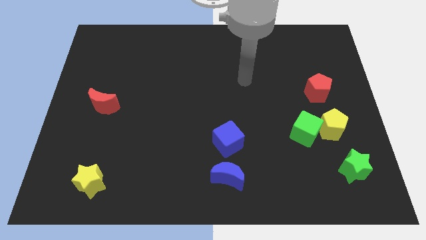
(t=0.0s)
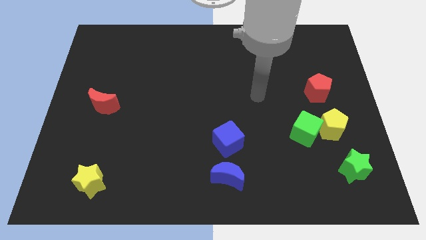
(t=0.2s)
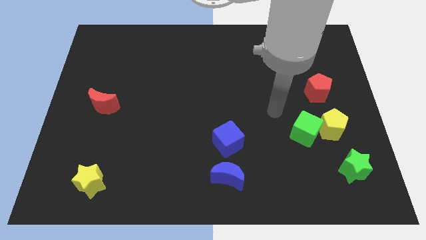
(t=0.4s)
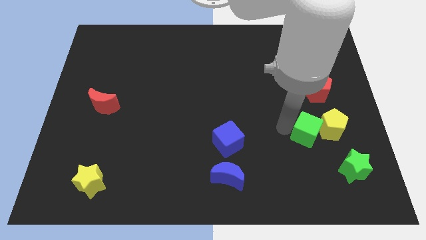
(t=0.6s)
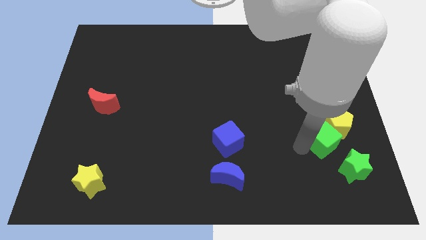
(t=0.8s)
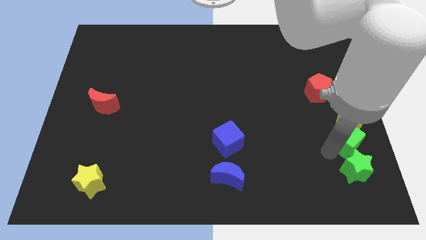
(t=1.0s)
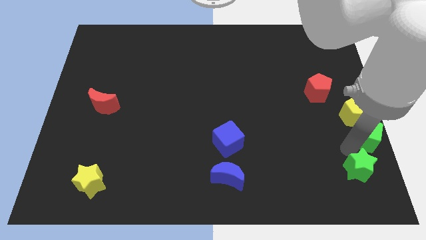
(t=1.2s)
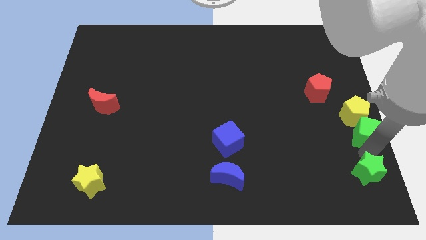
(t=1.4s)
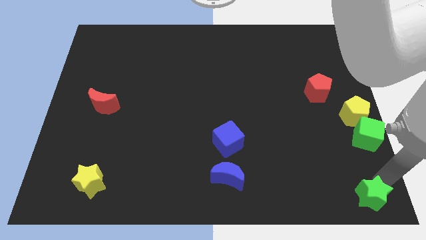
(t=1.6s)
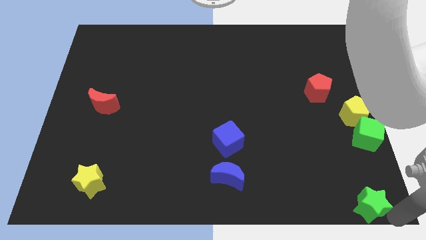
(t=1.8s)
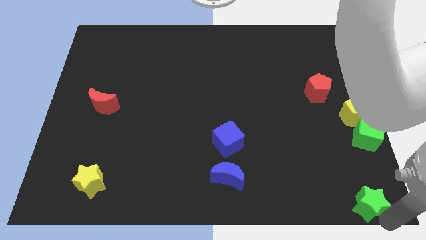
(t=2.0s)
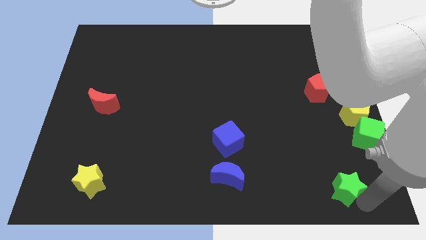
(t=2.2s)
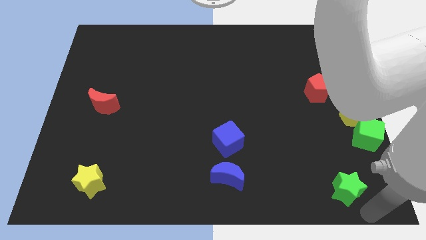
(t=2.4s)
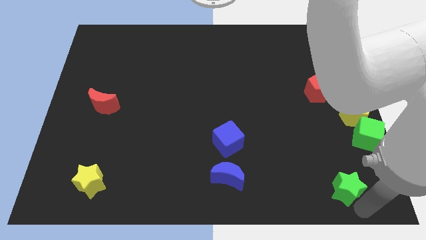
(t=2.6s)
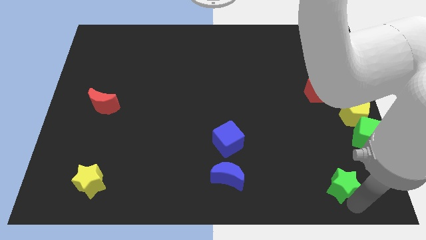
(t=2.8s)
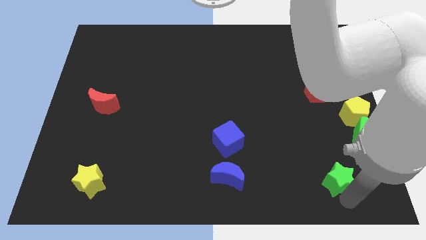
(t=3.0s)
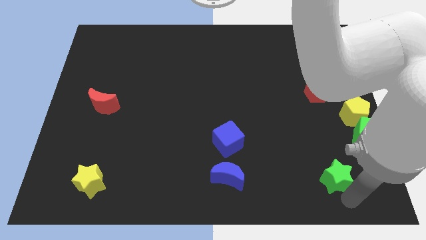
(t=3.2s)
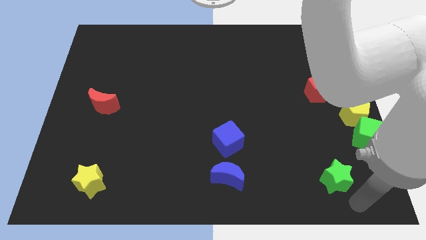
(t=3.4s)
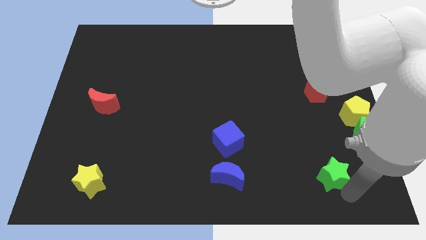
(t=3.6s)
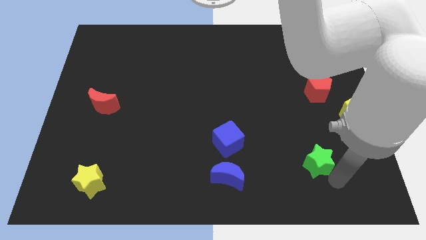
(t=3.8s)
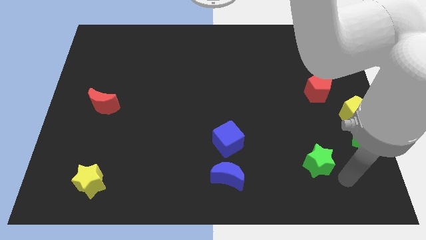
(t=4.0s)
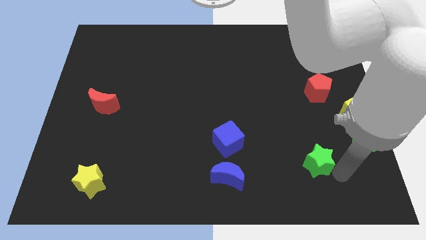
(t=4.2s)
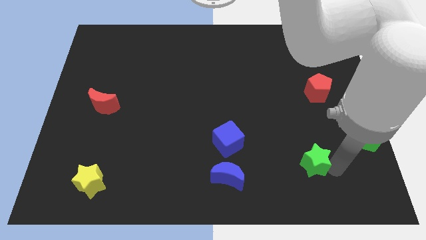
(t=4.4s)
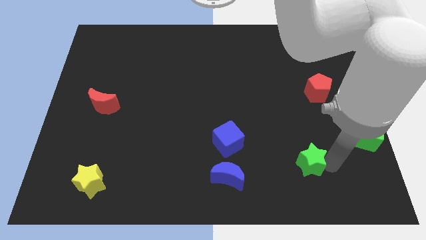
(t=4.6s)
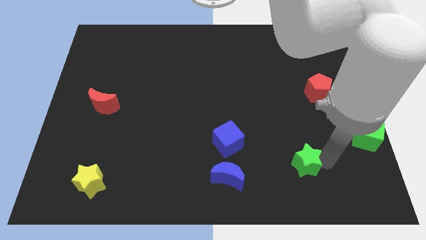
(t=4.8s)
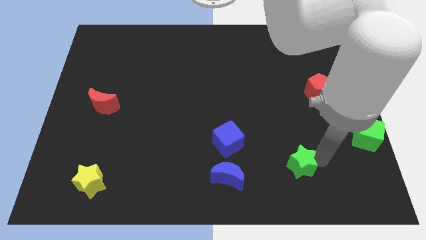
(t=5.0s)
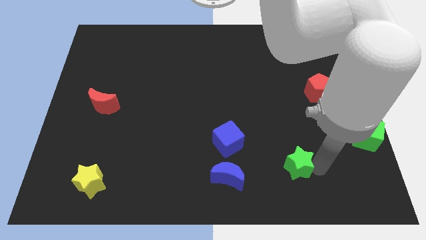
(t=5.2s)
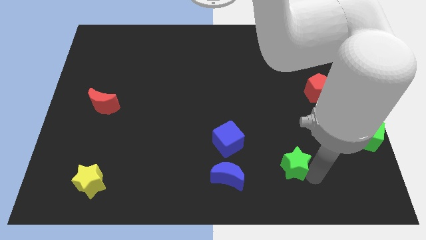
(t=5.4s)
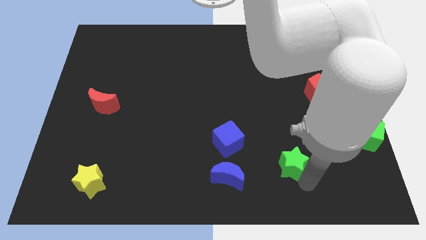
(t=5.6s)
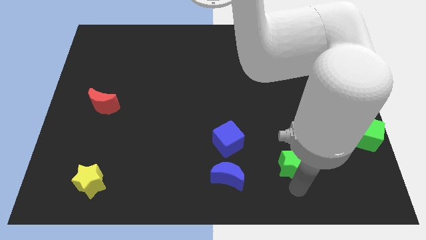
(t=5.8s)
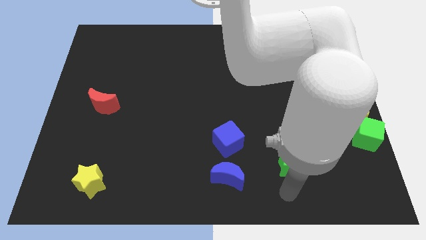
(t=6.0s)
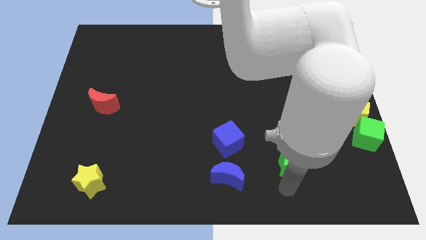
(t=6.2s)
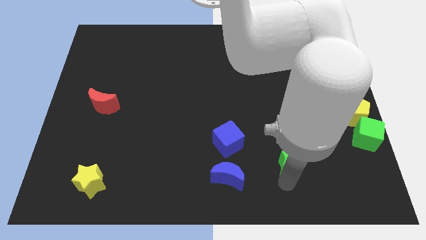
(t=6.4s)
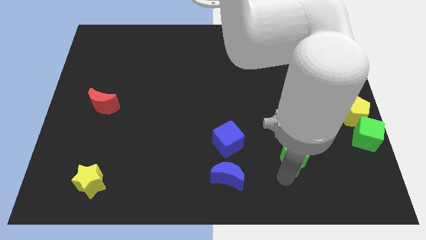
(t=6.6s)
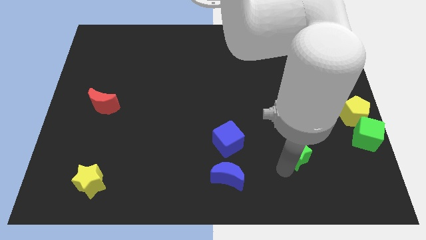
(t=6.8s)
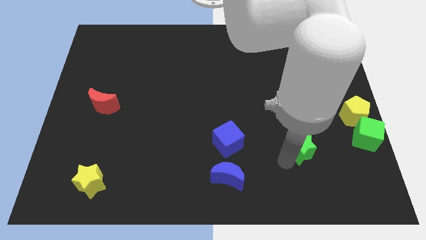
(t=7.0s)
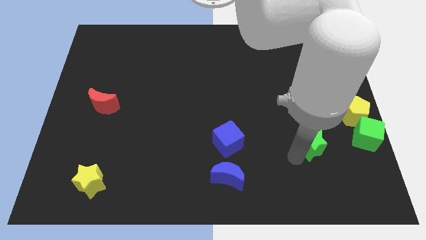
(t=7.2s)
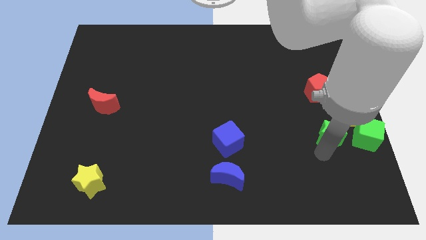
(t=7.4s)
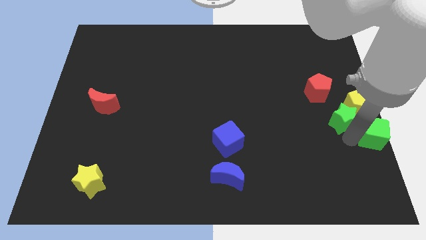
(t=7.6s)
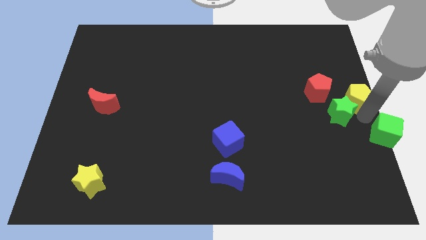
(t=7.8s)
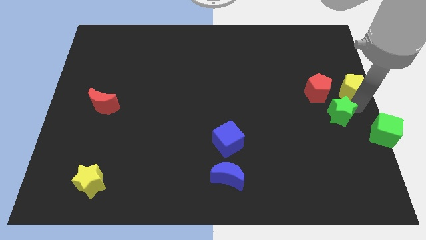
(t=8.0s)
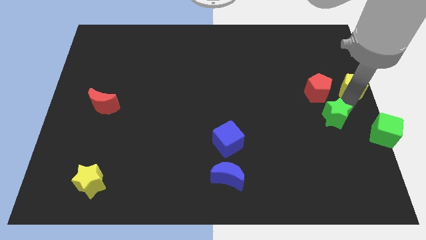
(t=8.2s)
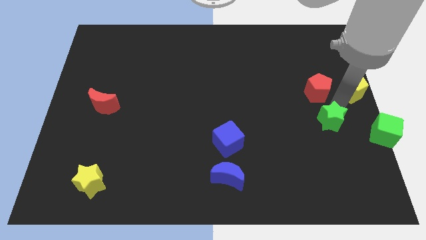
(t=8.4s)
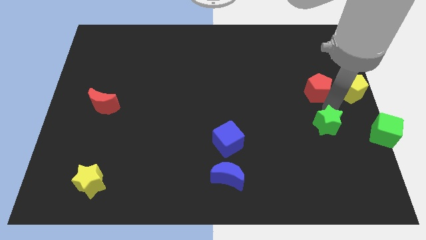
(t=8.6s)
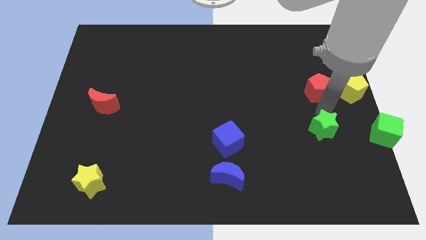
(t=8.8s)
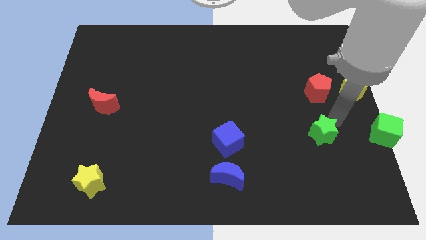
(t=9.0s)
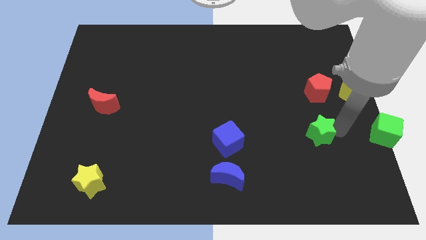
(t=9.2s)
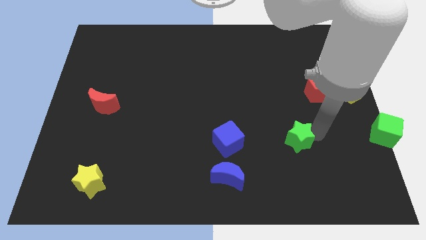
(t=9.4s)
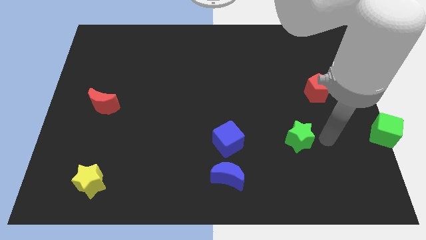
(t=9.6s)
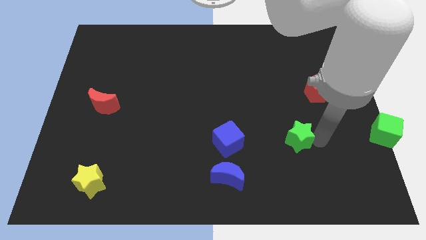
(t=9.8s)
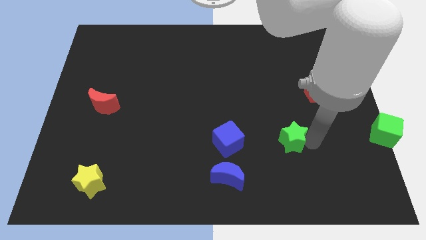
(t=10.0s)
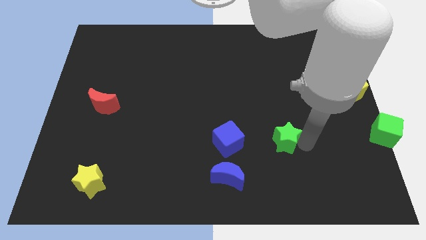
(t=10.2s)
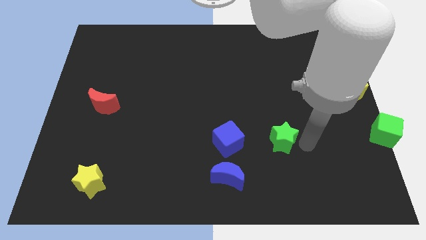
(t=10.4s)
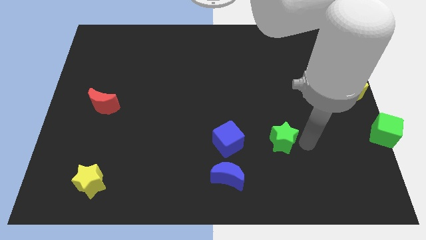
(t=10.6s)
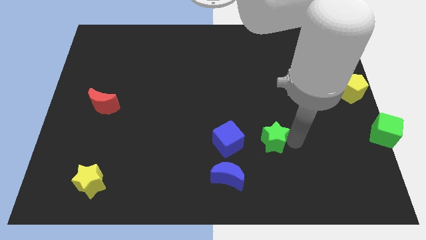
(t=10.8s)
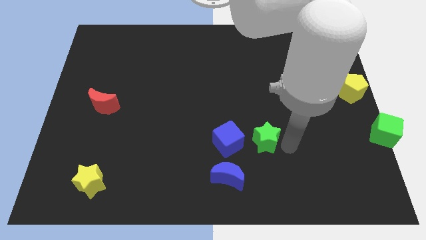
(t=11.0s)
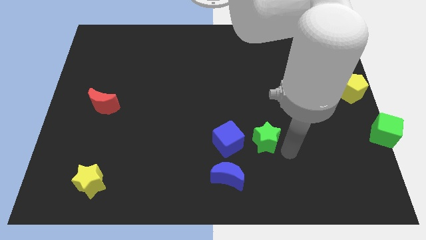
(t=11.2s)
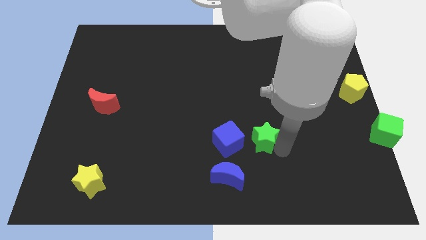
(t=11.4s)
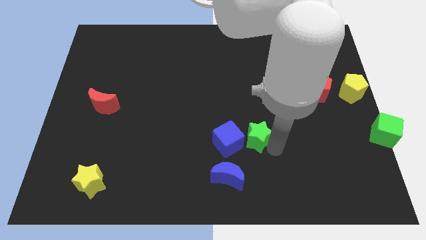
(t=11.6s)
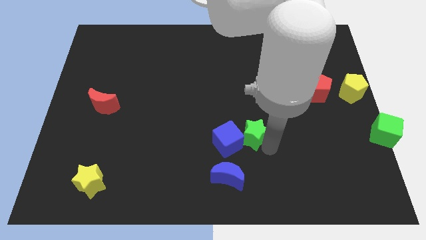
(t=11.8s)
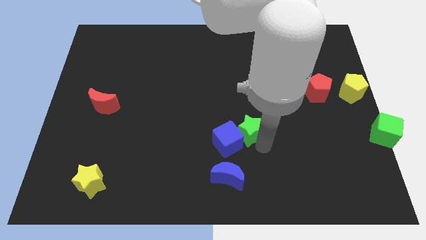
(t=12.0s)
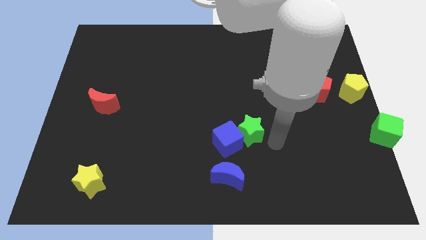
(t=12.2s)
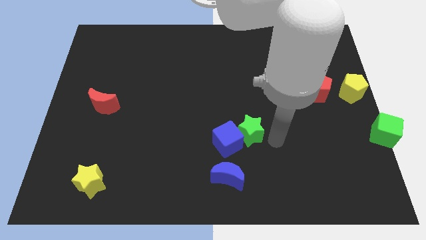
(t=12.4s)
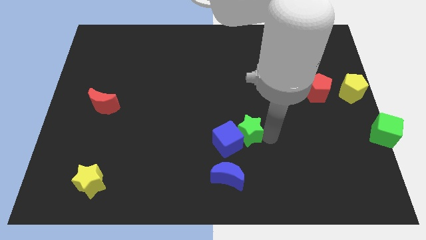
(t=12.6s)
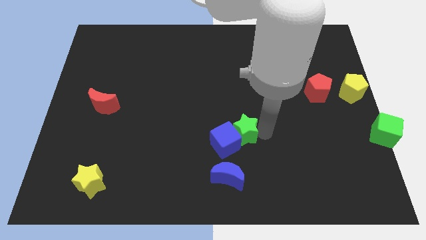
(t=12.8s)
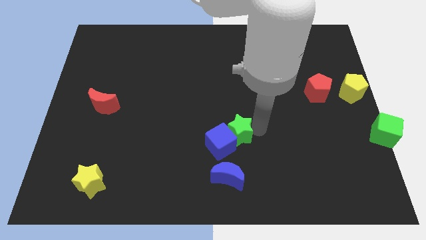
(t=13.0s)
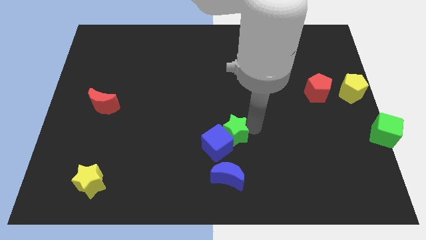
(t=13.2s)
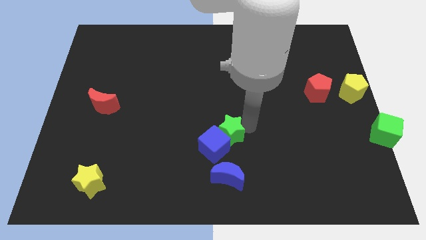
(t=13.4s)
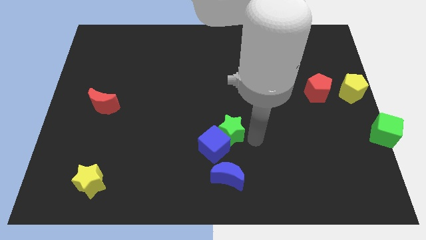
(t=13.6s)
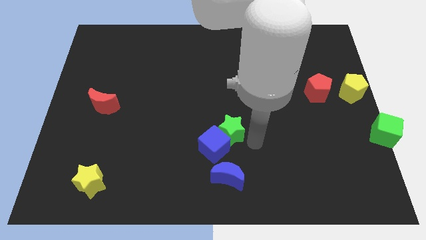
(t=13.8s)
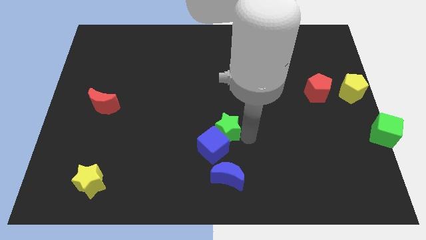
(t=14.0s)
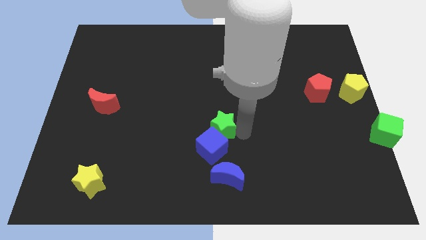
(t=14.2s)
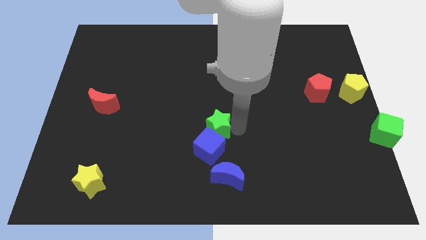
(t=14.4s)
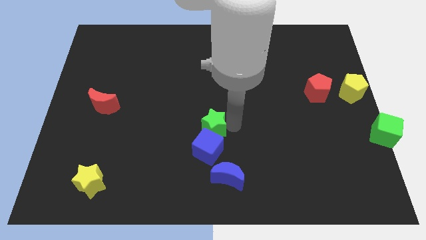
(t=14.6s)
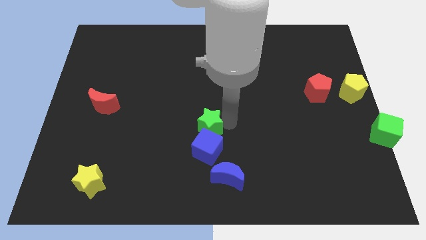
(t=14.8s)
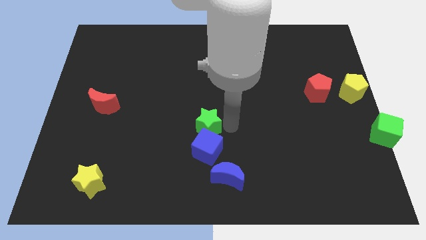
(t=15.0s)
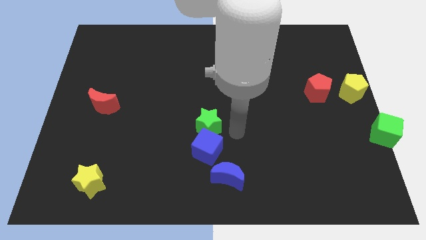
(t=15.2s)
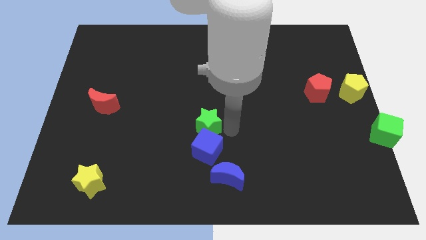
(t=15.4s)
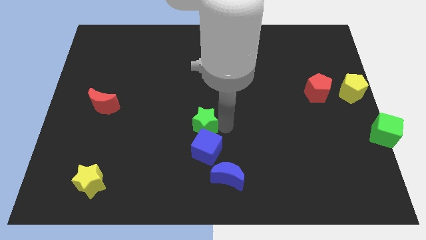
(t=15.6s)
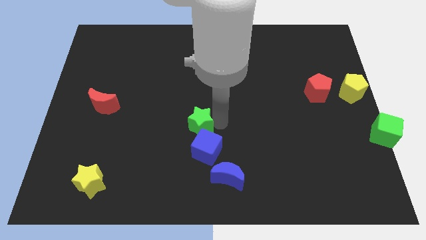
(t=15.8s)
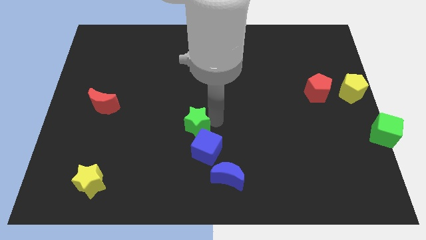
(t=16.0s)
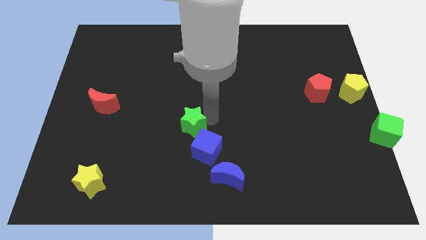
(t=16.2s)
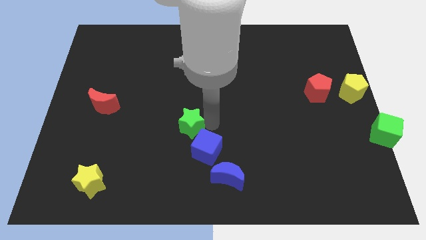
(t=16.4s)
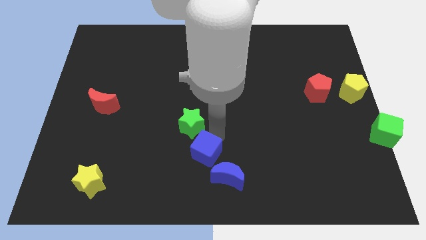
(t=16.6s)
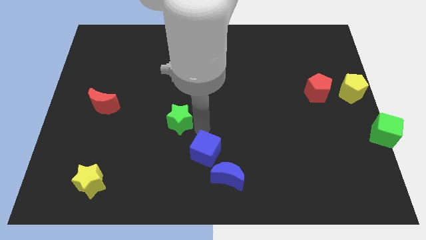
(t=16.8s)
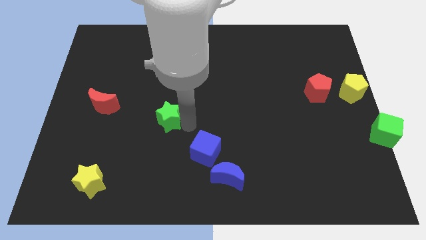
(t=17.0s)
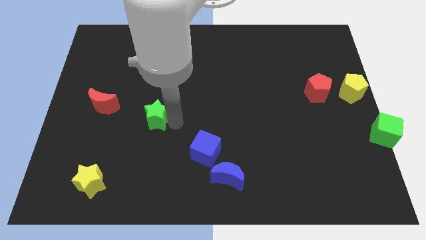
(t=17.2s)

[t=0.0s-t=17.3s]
move the green star just right of the red moon
